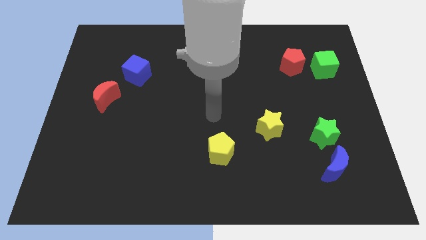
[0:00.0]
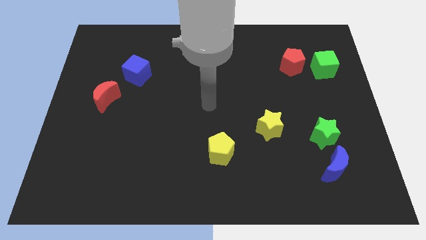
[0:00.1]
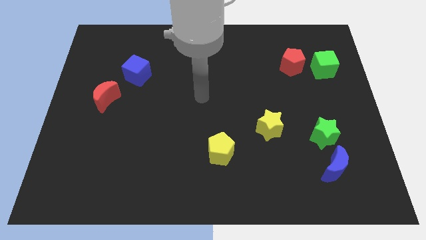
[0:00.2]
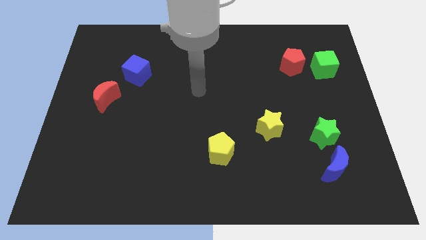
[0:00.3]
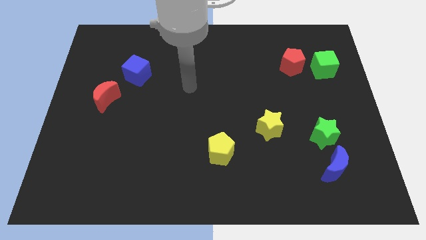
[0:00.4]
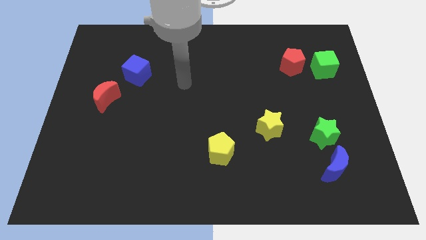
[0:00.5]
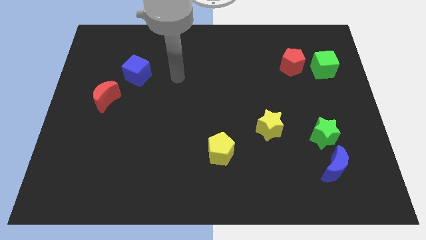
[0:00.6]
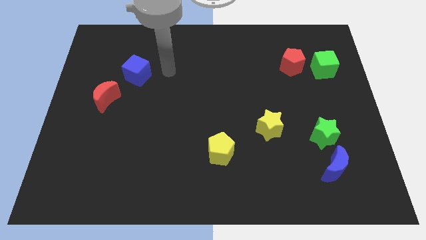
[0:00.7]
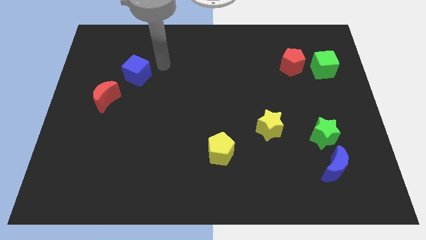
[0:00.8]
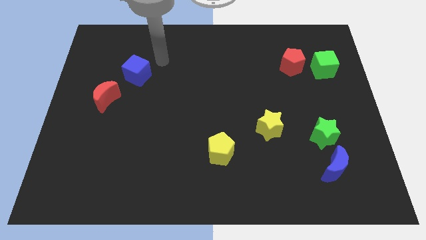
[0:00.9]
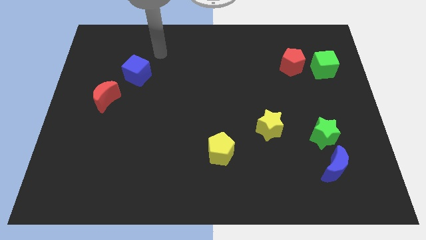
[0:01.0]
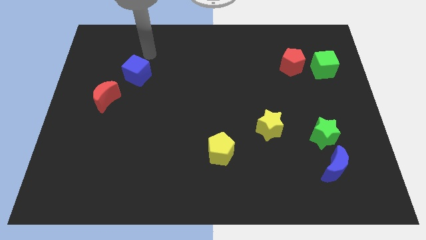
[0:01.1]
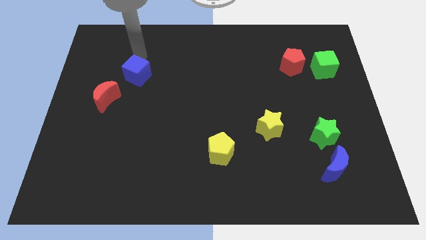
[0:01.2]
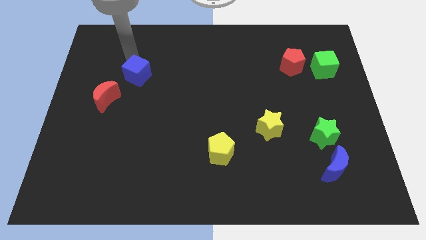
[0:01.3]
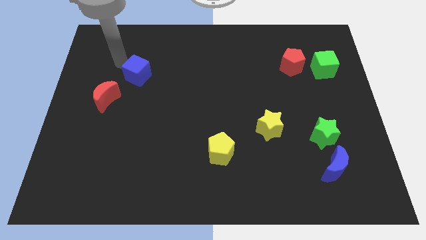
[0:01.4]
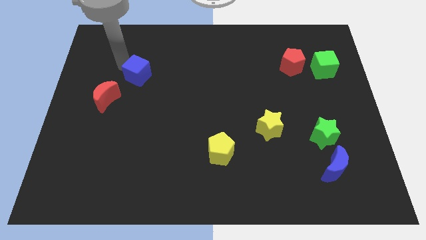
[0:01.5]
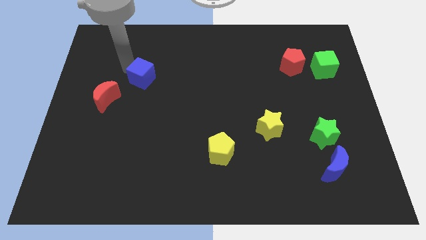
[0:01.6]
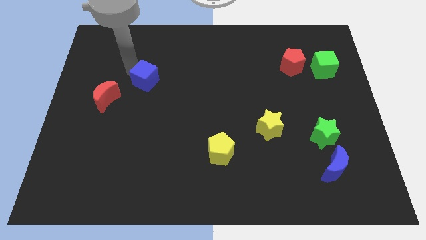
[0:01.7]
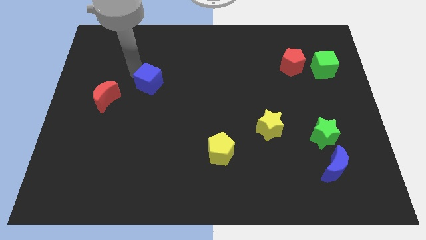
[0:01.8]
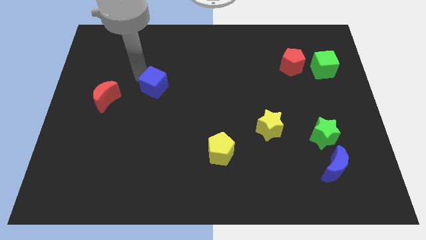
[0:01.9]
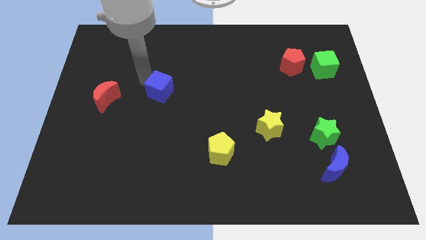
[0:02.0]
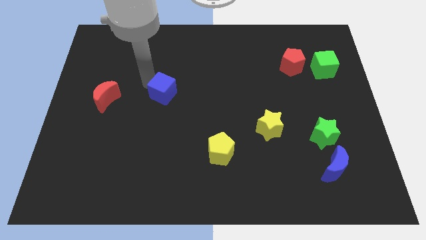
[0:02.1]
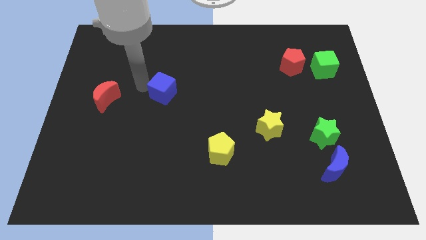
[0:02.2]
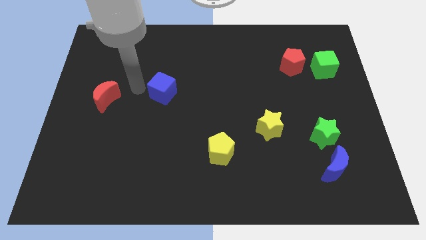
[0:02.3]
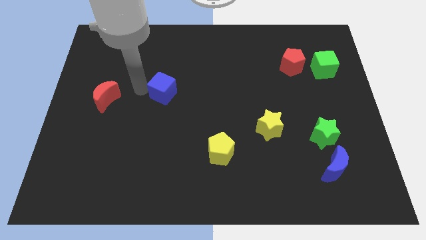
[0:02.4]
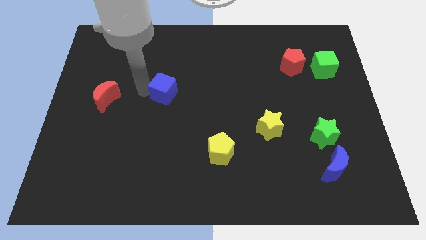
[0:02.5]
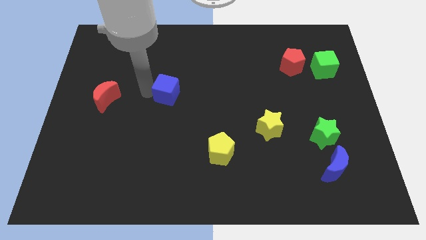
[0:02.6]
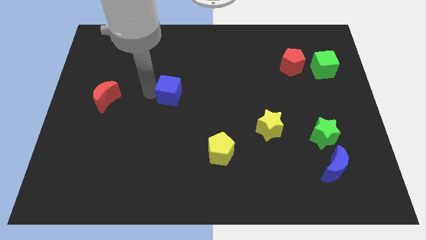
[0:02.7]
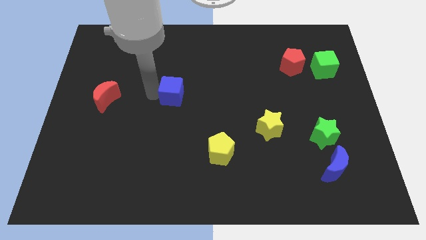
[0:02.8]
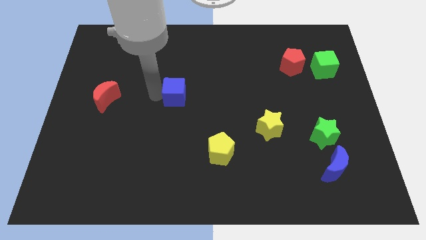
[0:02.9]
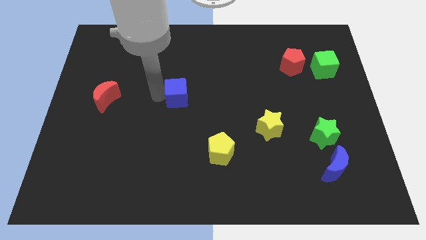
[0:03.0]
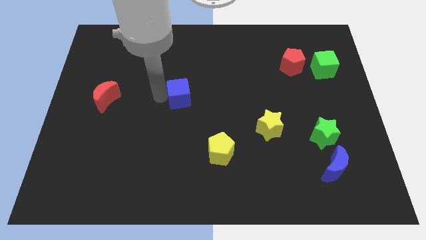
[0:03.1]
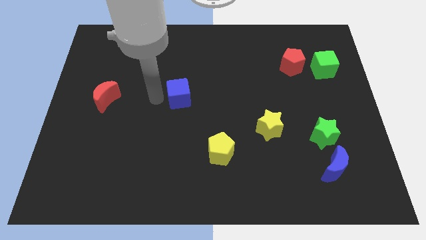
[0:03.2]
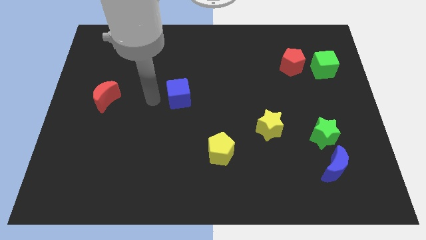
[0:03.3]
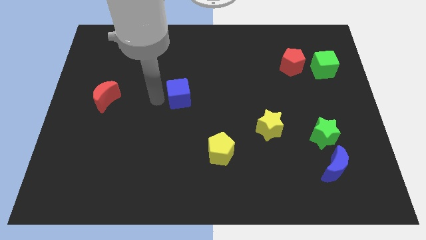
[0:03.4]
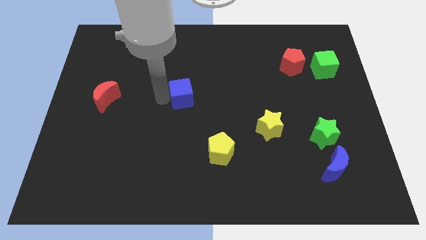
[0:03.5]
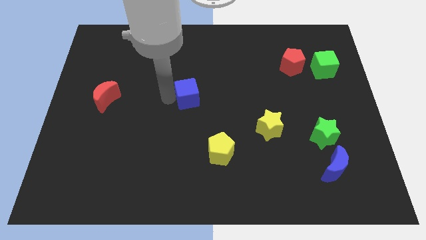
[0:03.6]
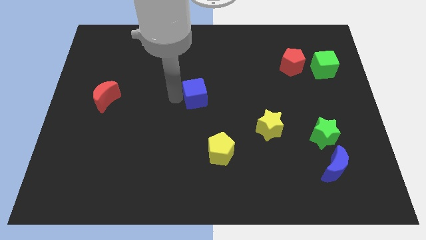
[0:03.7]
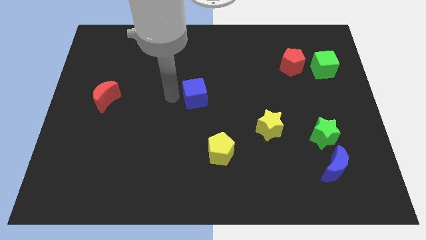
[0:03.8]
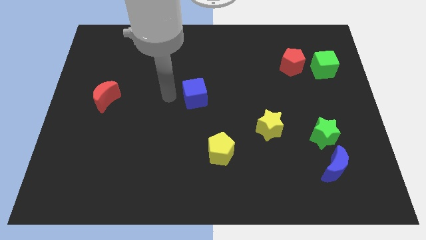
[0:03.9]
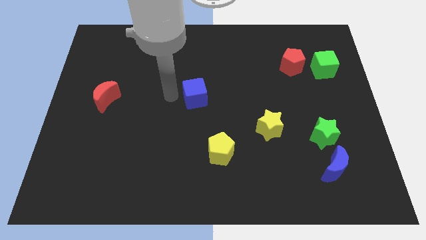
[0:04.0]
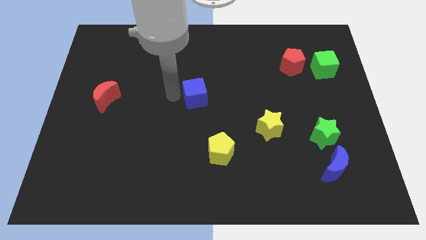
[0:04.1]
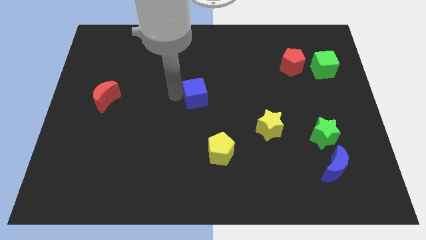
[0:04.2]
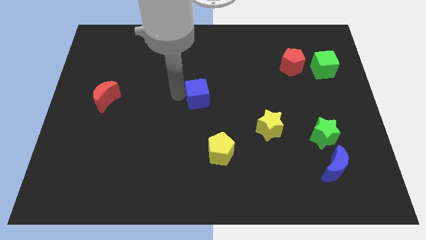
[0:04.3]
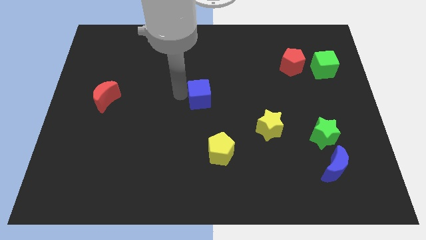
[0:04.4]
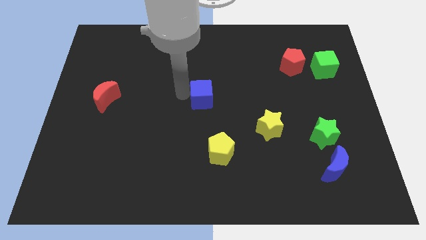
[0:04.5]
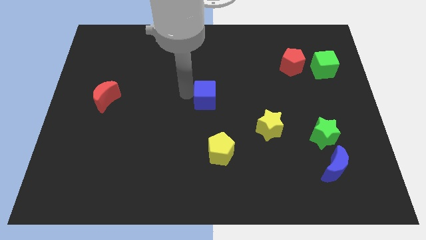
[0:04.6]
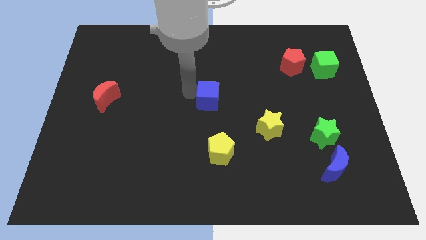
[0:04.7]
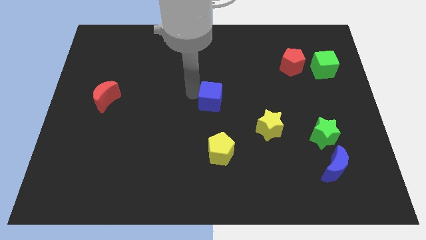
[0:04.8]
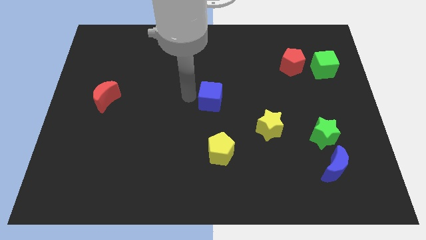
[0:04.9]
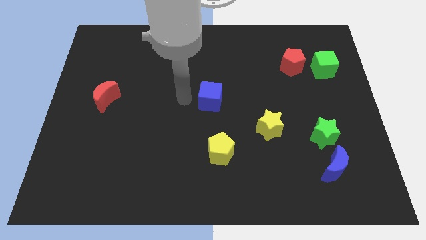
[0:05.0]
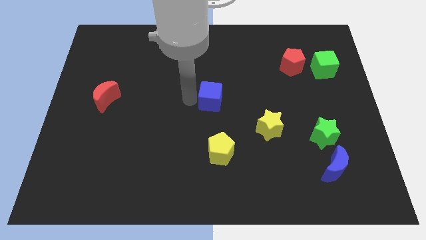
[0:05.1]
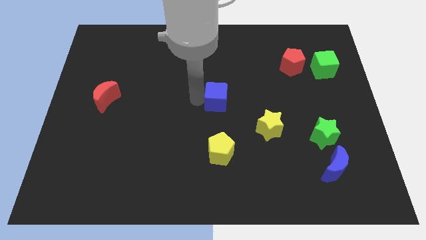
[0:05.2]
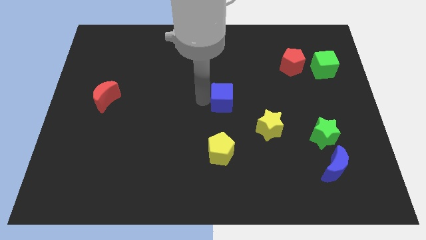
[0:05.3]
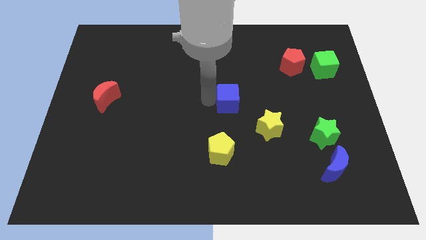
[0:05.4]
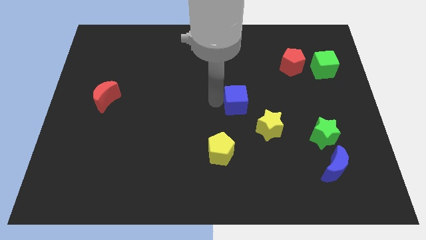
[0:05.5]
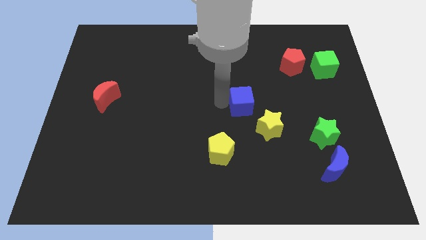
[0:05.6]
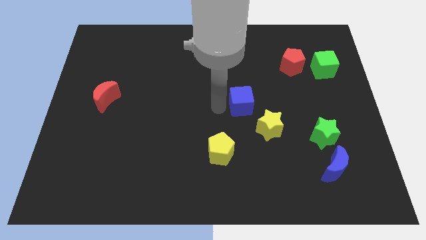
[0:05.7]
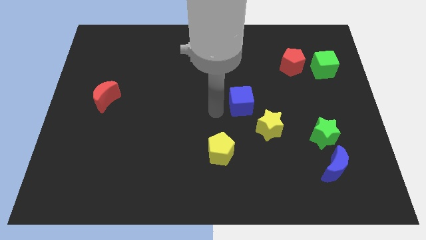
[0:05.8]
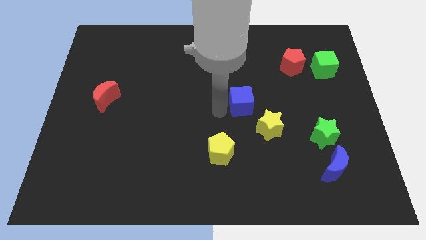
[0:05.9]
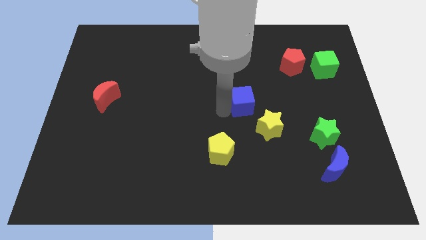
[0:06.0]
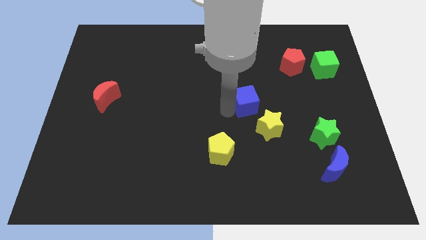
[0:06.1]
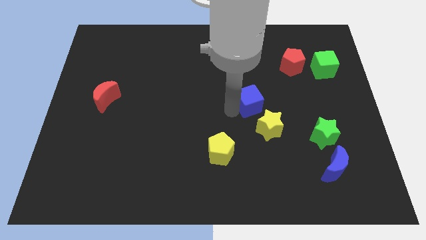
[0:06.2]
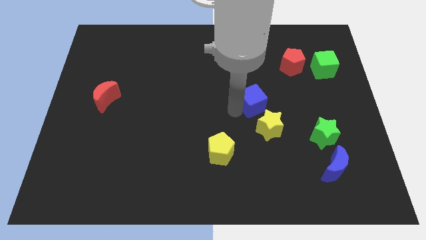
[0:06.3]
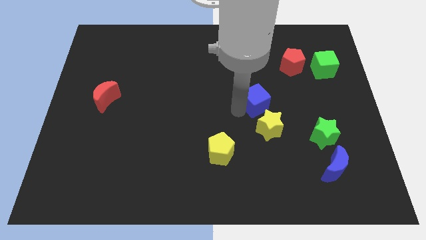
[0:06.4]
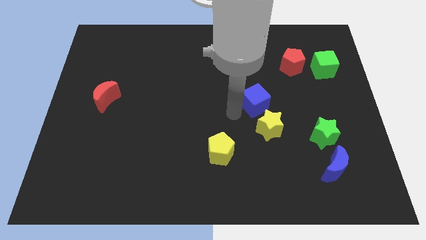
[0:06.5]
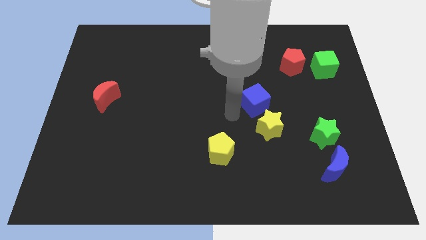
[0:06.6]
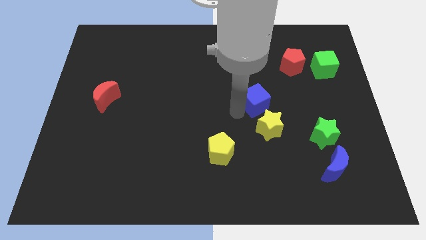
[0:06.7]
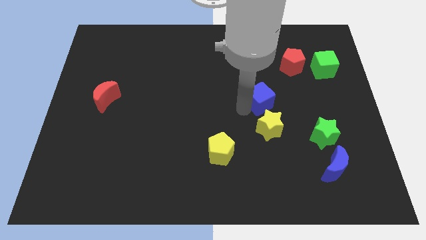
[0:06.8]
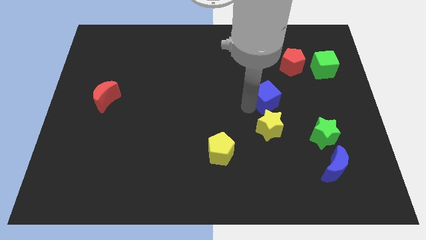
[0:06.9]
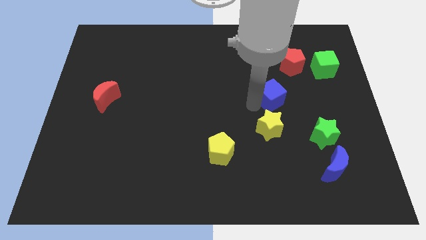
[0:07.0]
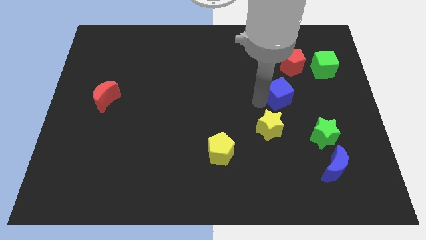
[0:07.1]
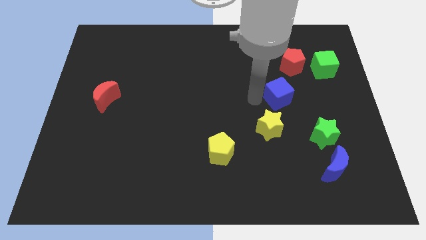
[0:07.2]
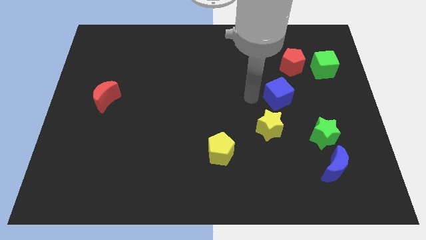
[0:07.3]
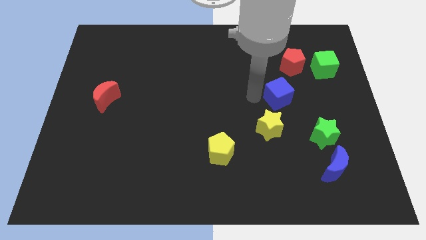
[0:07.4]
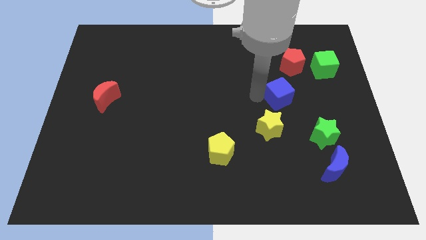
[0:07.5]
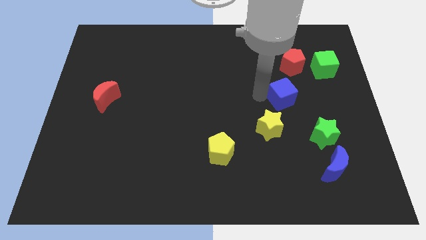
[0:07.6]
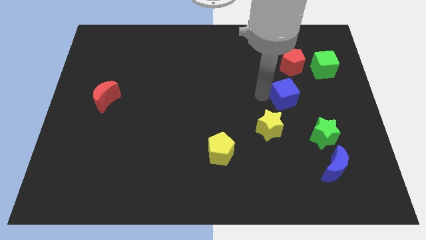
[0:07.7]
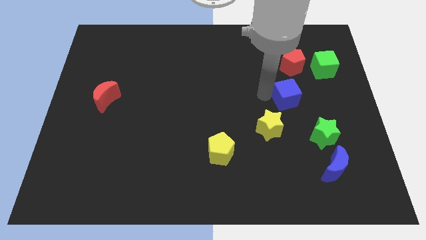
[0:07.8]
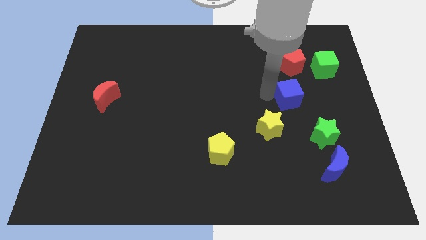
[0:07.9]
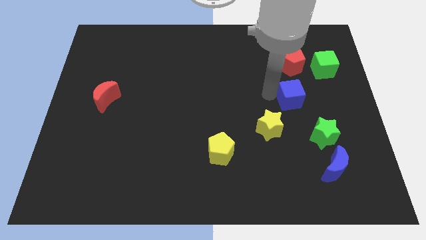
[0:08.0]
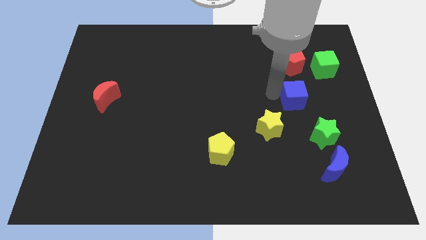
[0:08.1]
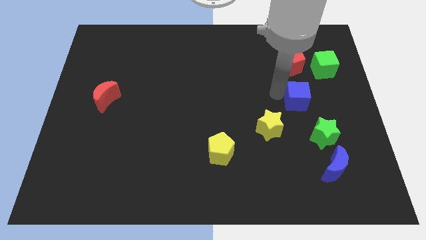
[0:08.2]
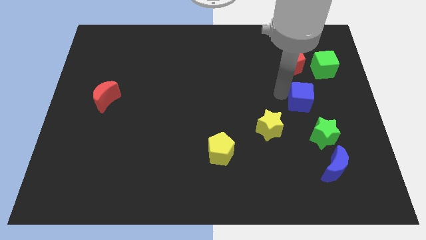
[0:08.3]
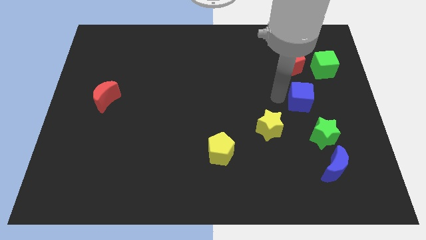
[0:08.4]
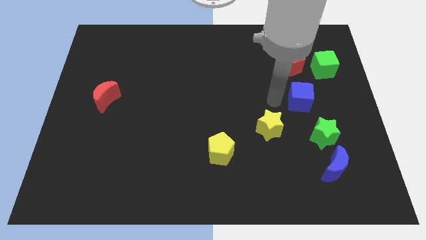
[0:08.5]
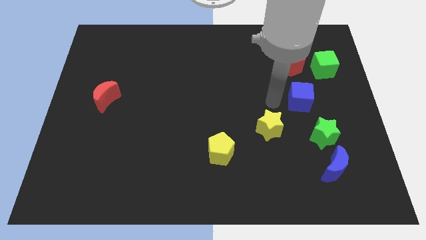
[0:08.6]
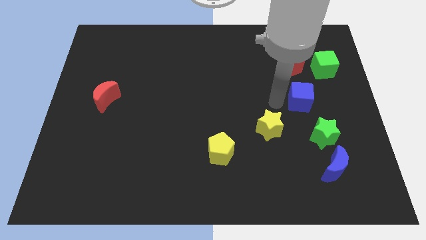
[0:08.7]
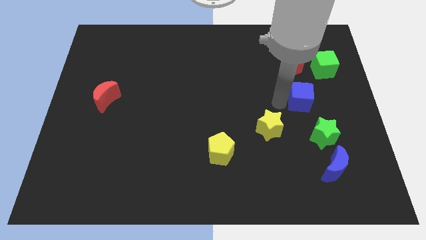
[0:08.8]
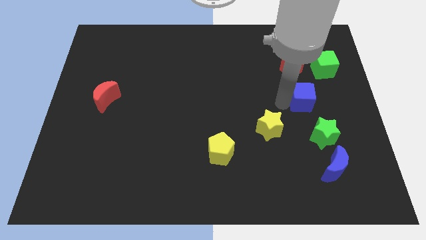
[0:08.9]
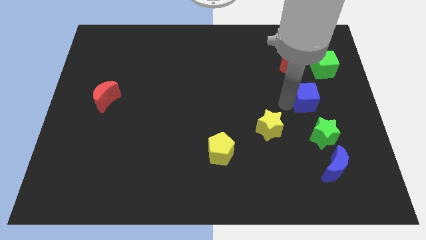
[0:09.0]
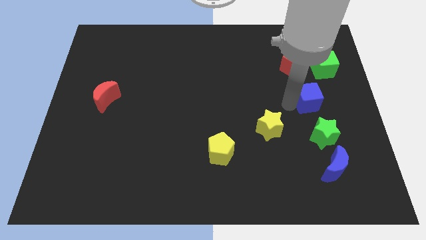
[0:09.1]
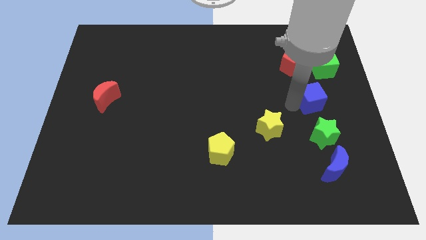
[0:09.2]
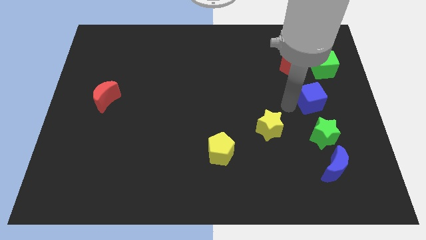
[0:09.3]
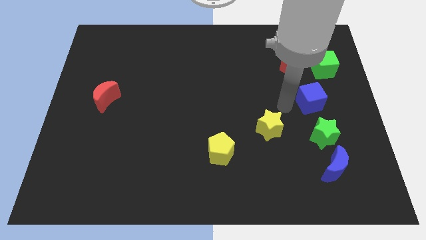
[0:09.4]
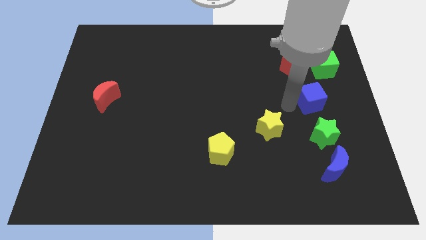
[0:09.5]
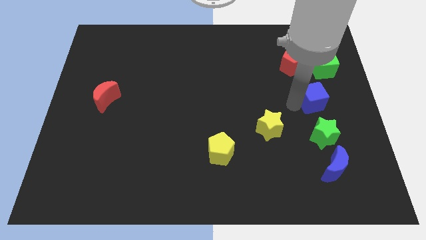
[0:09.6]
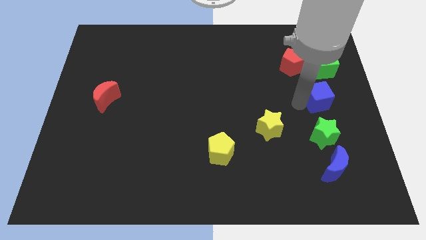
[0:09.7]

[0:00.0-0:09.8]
push the blue cube to the right side
